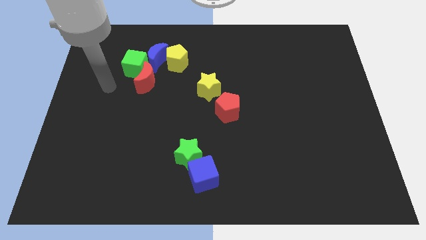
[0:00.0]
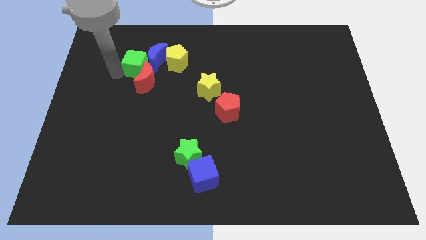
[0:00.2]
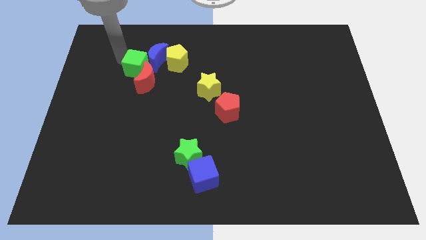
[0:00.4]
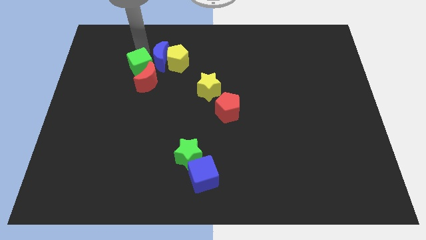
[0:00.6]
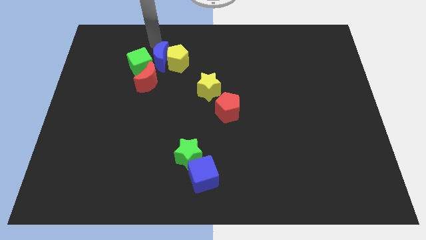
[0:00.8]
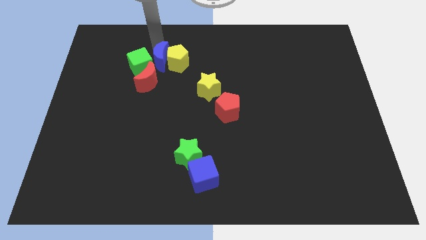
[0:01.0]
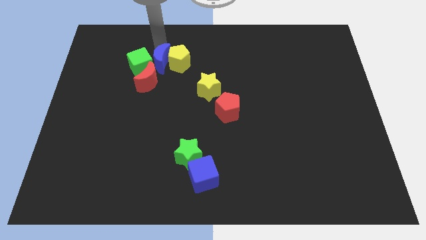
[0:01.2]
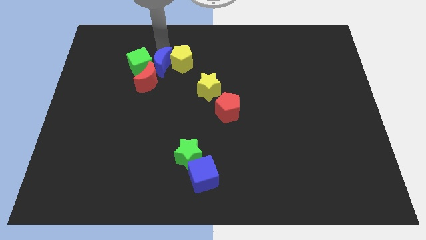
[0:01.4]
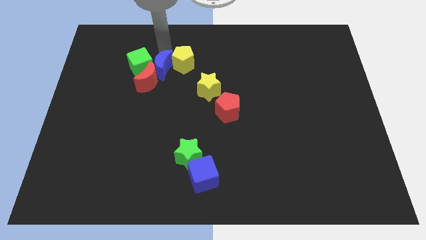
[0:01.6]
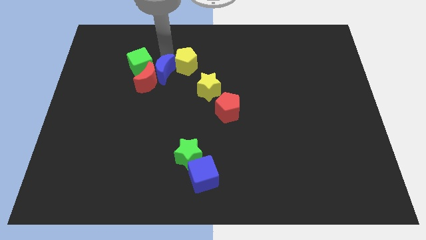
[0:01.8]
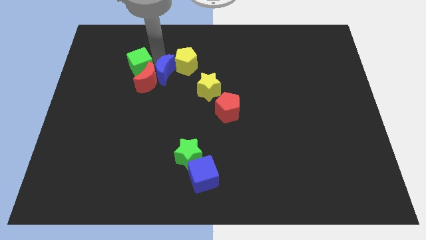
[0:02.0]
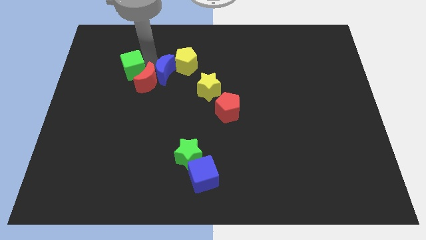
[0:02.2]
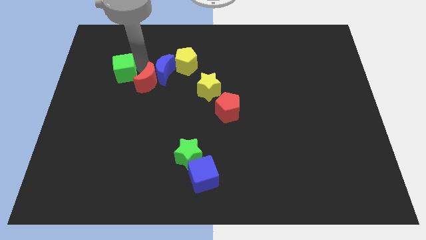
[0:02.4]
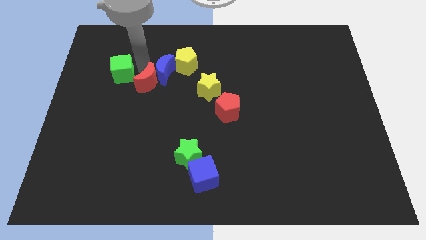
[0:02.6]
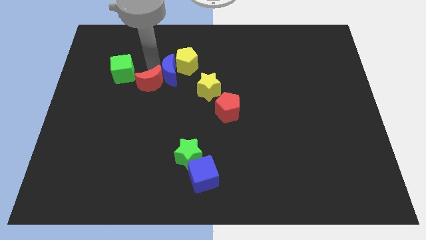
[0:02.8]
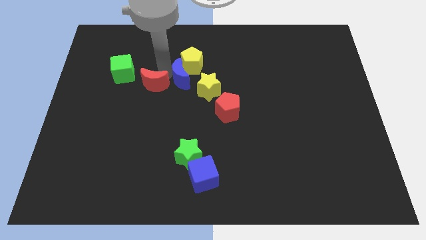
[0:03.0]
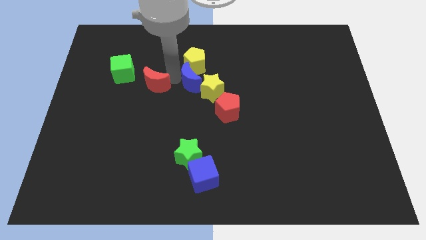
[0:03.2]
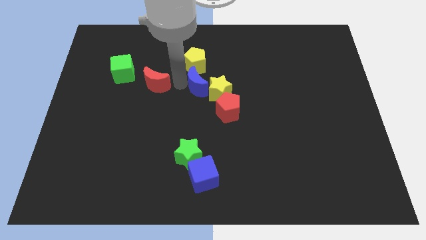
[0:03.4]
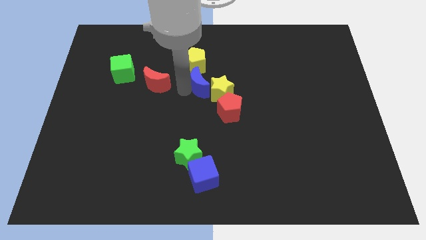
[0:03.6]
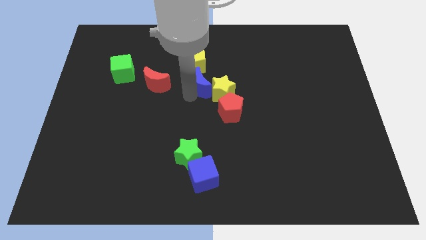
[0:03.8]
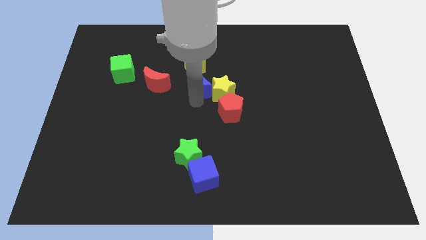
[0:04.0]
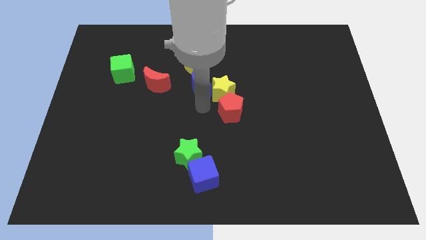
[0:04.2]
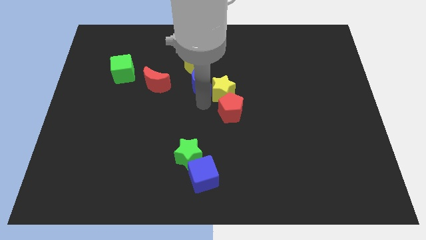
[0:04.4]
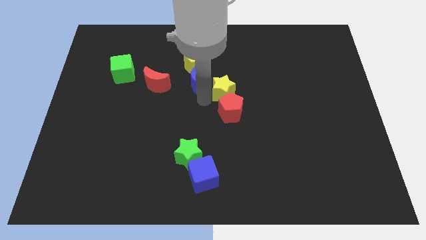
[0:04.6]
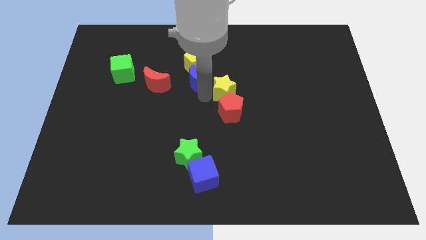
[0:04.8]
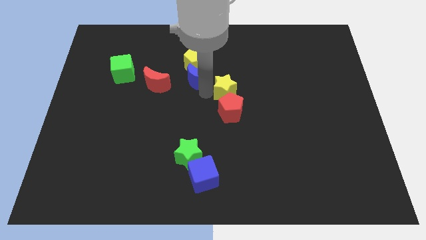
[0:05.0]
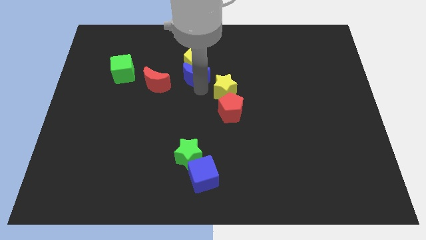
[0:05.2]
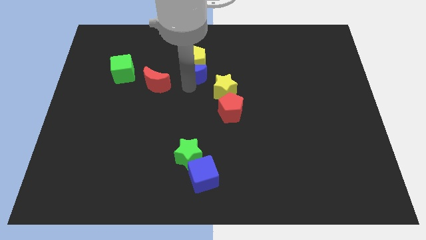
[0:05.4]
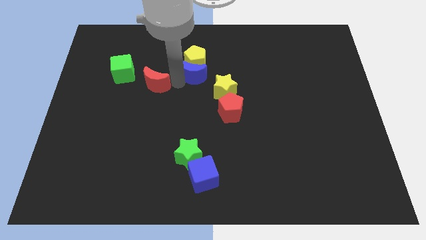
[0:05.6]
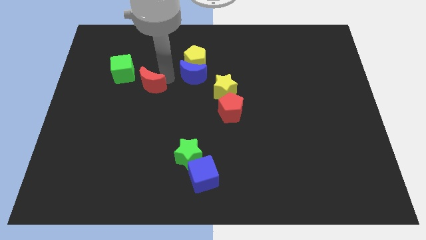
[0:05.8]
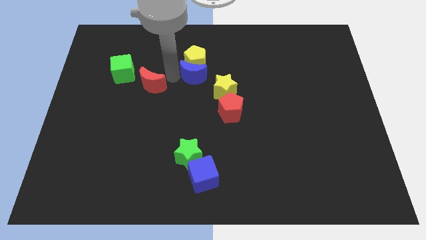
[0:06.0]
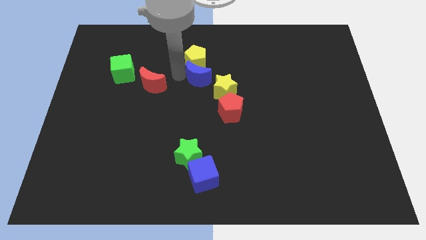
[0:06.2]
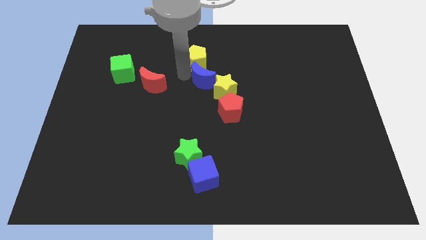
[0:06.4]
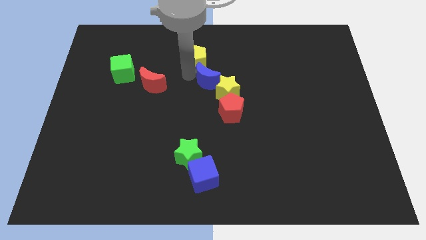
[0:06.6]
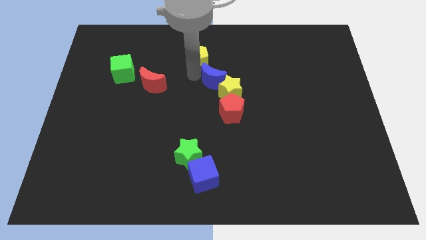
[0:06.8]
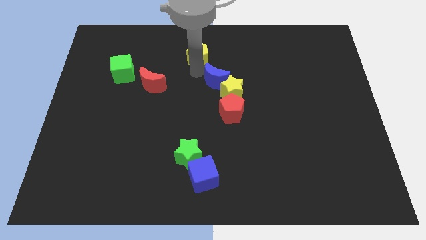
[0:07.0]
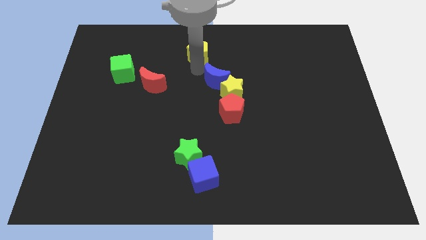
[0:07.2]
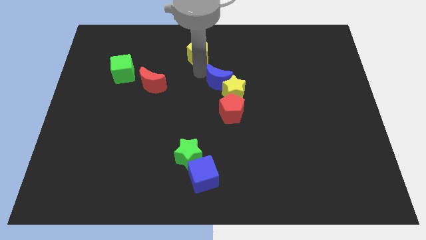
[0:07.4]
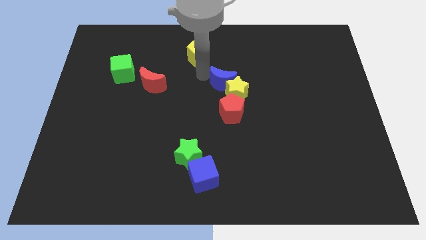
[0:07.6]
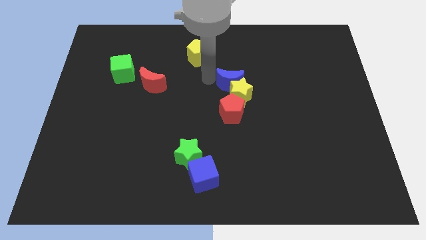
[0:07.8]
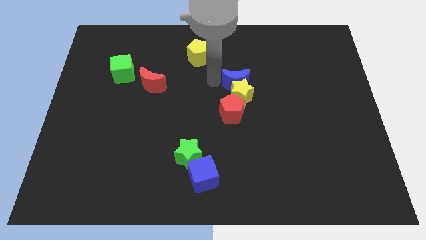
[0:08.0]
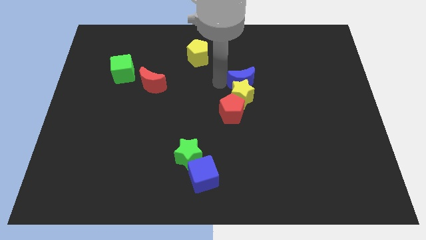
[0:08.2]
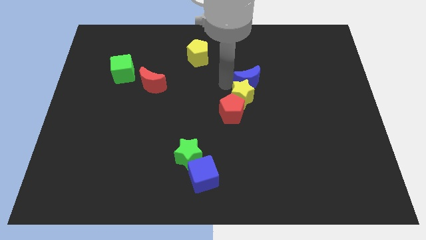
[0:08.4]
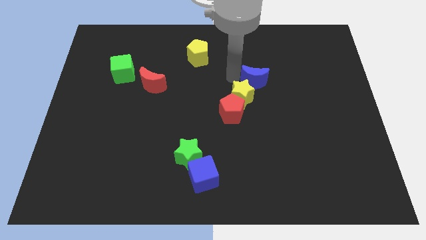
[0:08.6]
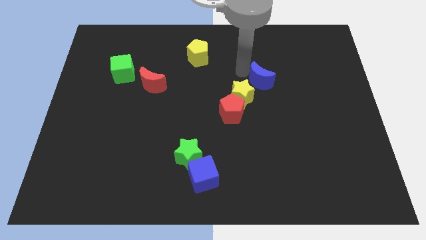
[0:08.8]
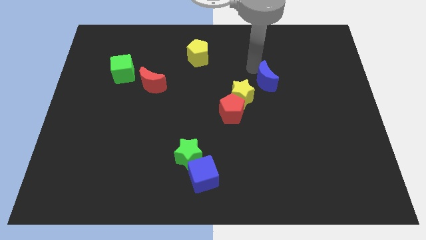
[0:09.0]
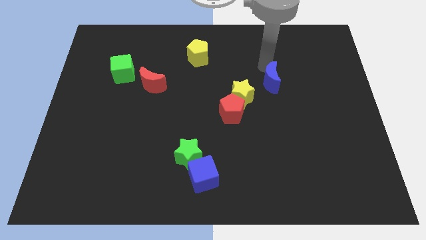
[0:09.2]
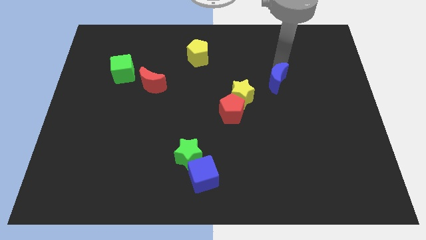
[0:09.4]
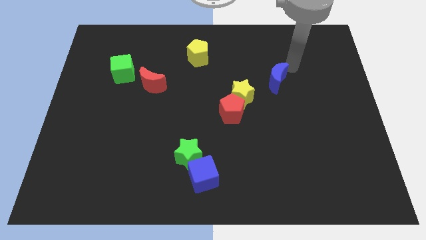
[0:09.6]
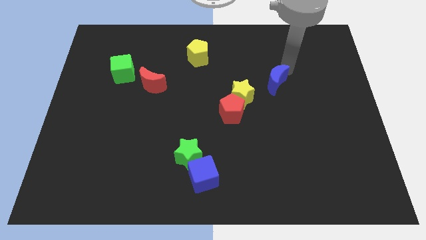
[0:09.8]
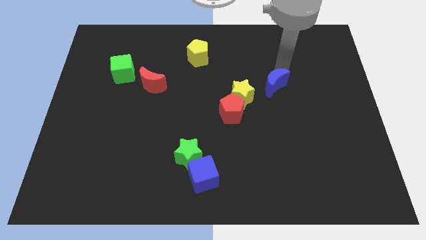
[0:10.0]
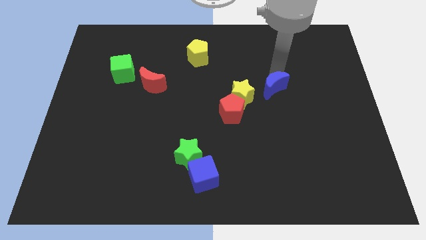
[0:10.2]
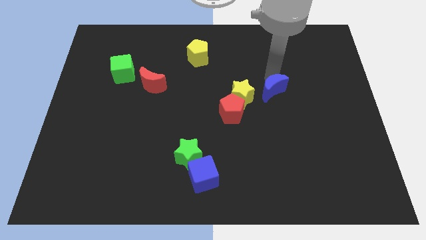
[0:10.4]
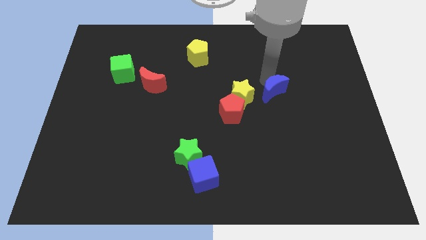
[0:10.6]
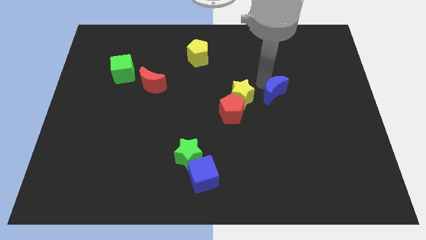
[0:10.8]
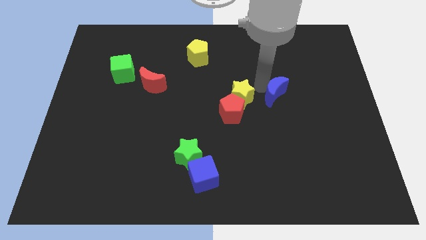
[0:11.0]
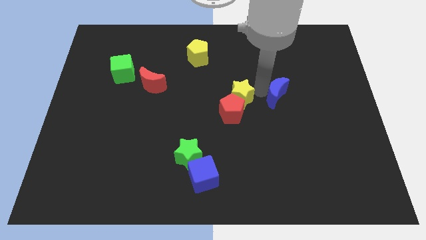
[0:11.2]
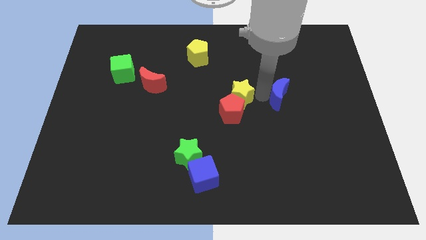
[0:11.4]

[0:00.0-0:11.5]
put the blue moon right of the red pentagon

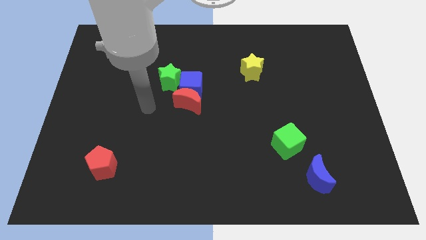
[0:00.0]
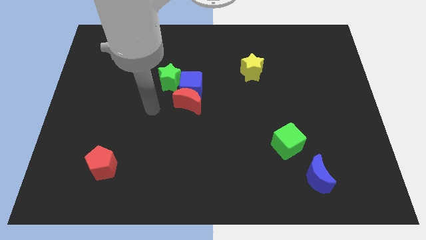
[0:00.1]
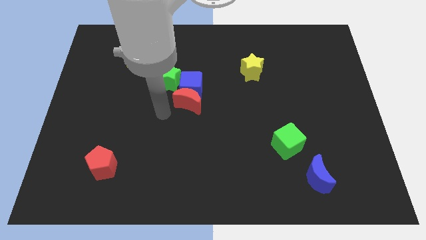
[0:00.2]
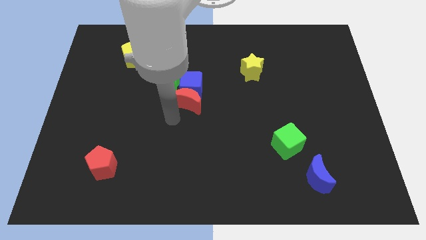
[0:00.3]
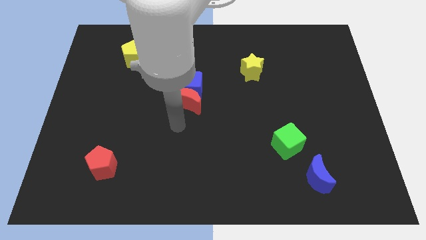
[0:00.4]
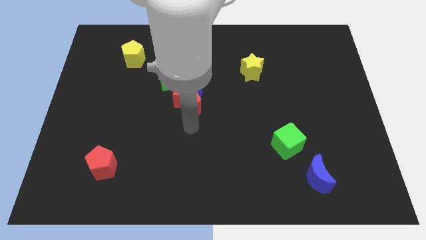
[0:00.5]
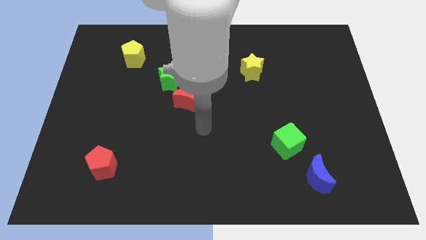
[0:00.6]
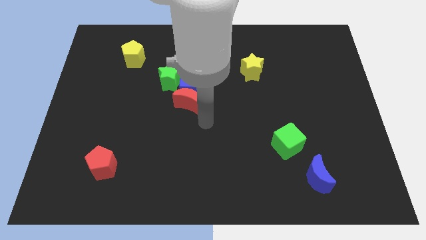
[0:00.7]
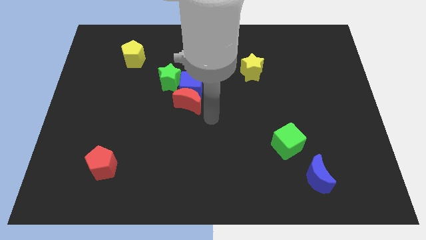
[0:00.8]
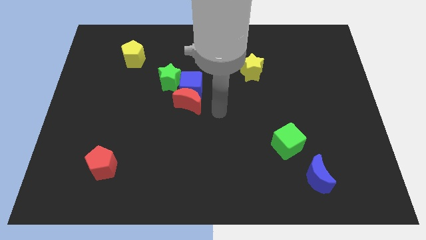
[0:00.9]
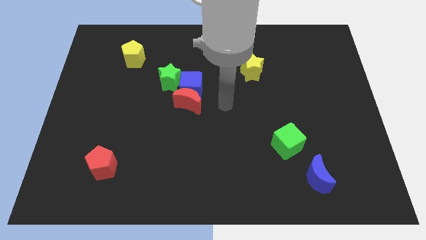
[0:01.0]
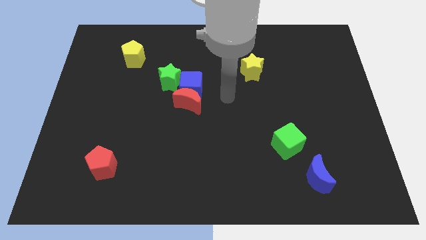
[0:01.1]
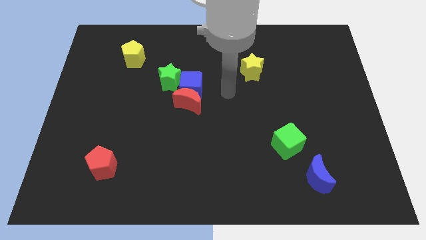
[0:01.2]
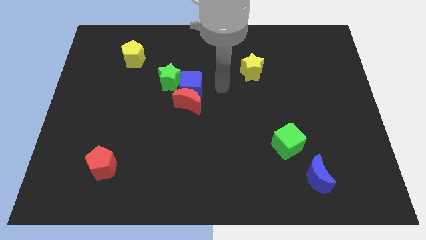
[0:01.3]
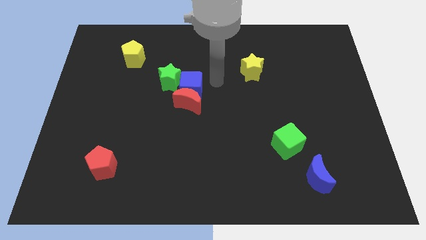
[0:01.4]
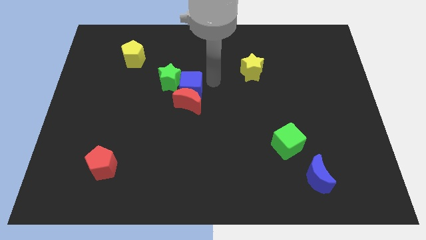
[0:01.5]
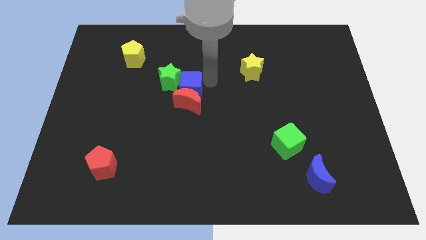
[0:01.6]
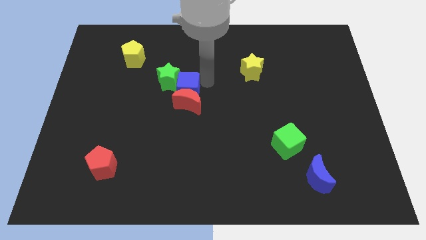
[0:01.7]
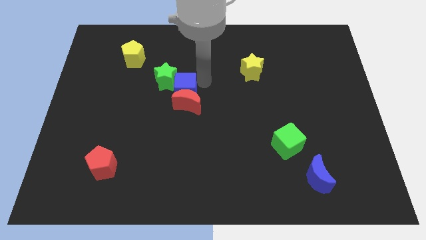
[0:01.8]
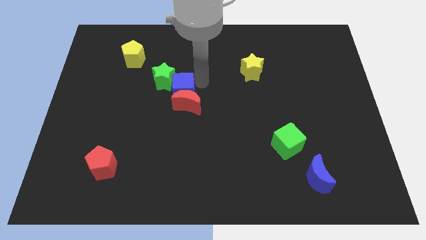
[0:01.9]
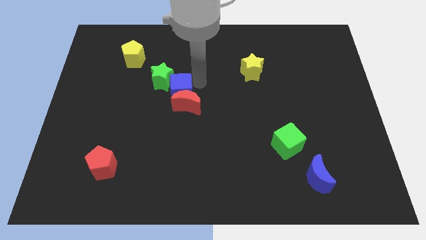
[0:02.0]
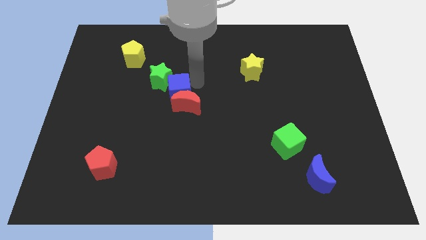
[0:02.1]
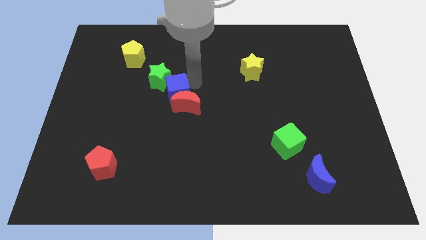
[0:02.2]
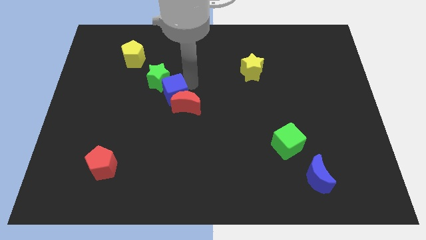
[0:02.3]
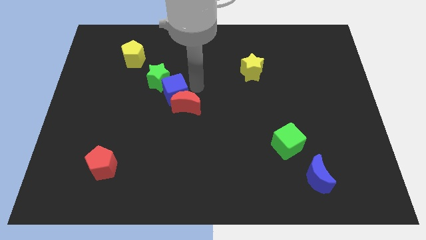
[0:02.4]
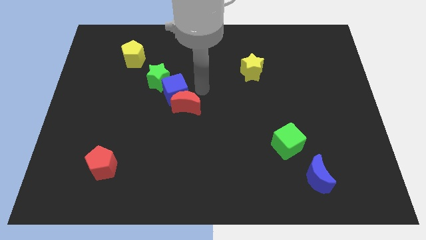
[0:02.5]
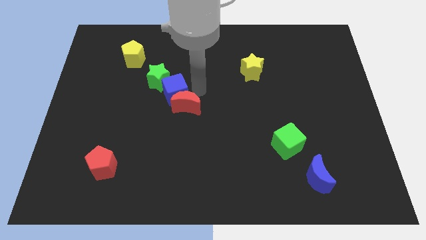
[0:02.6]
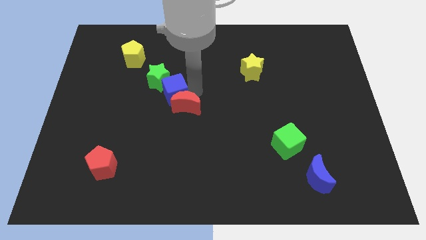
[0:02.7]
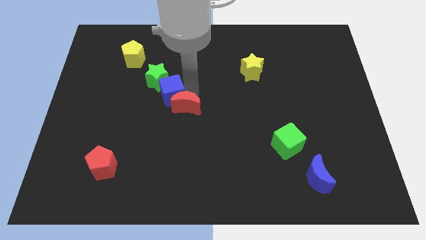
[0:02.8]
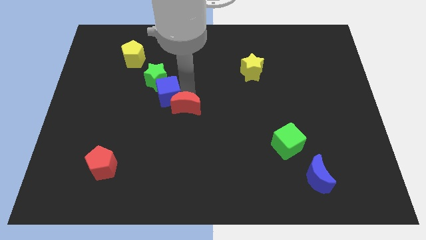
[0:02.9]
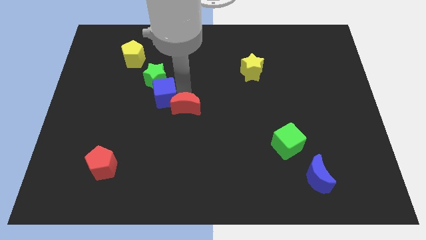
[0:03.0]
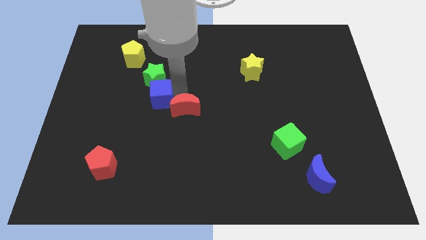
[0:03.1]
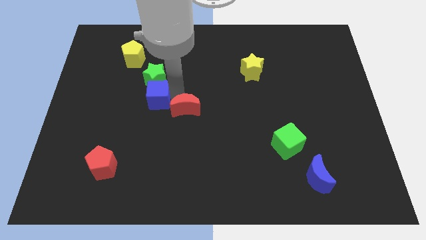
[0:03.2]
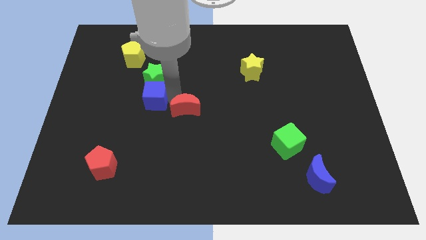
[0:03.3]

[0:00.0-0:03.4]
slide the blue cube diagonally down and to the left of the green star
